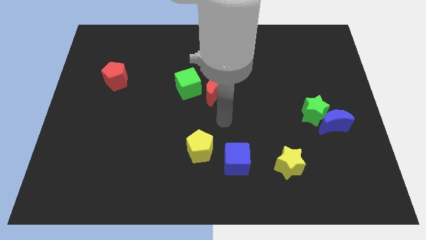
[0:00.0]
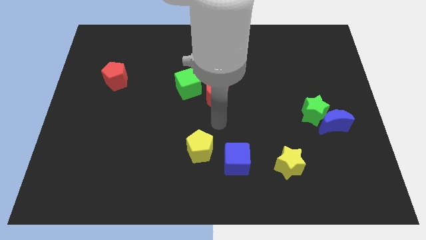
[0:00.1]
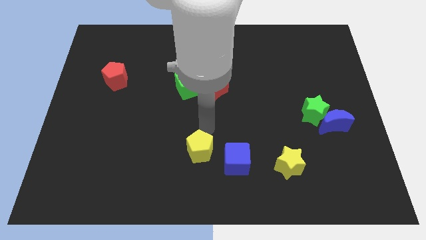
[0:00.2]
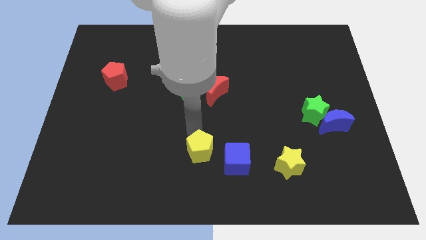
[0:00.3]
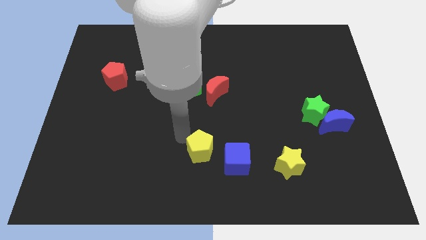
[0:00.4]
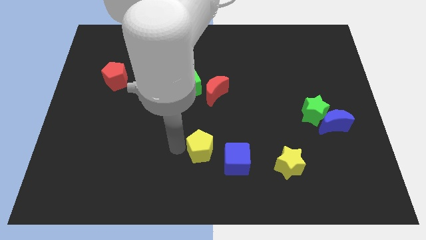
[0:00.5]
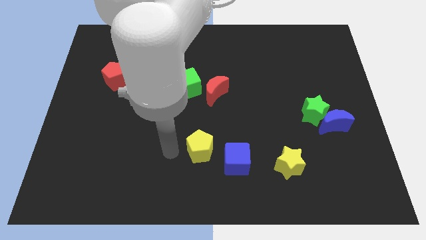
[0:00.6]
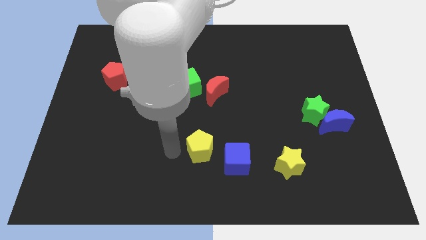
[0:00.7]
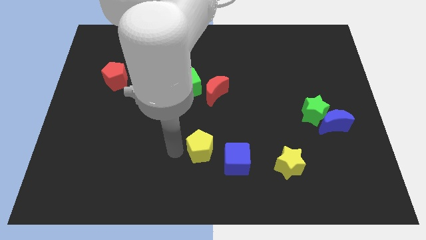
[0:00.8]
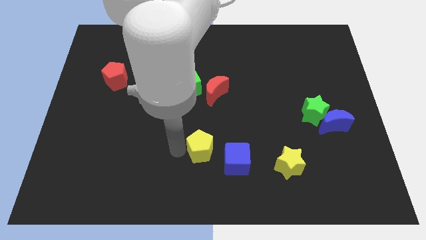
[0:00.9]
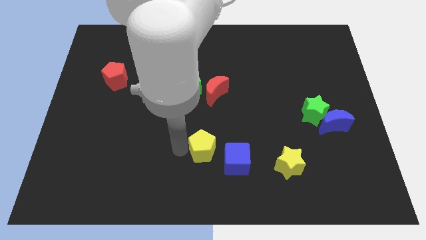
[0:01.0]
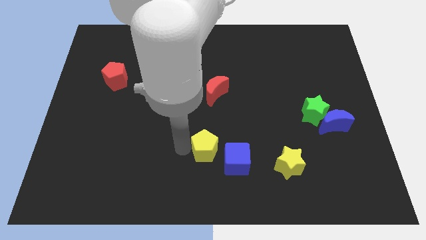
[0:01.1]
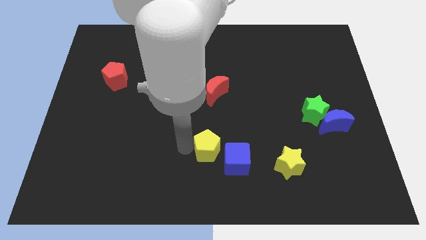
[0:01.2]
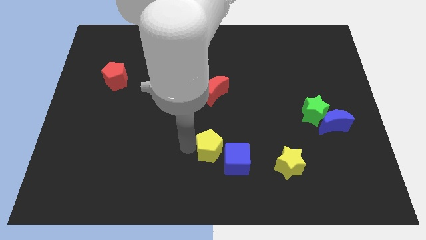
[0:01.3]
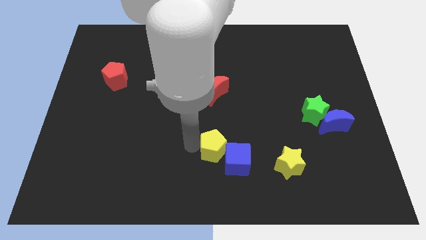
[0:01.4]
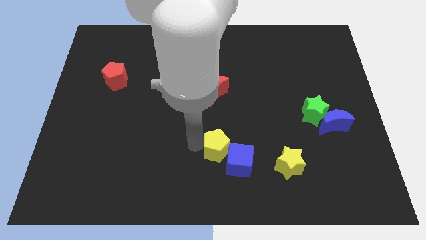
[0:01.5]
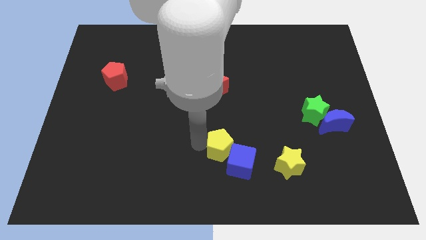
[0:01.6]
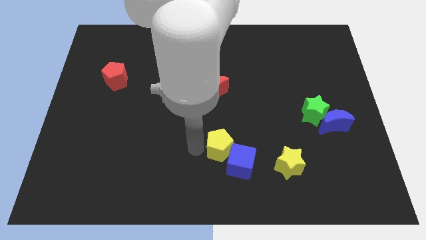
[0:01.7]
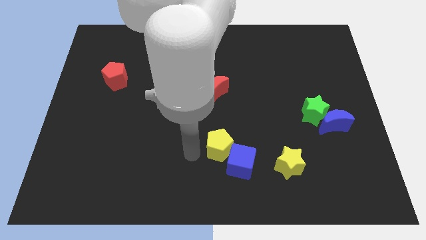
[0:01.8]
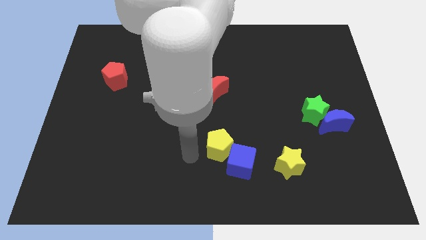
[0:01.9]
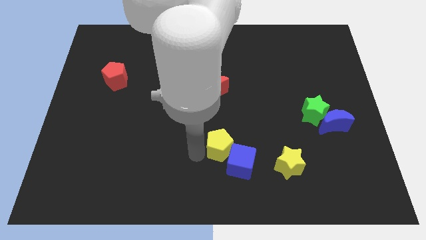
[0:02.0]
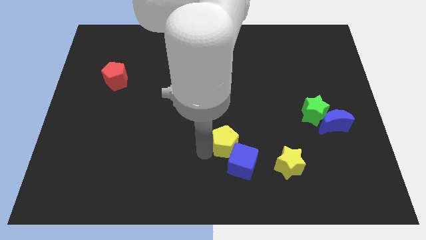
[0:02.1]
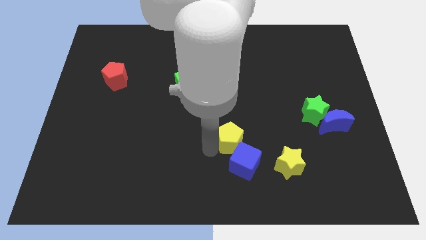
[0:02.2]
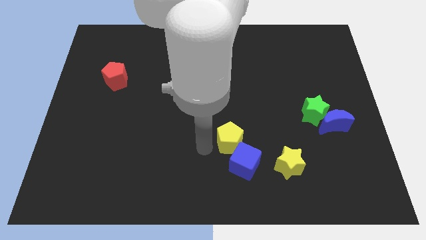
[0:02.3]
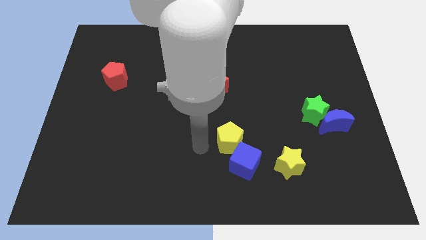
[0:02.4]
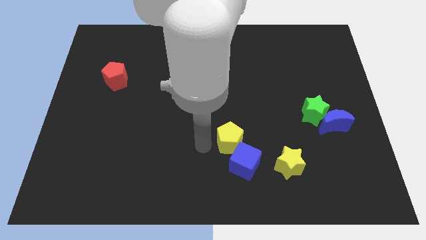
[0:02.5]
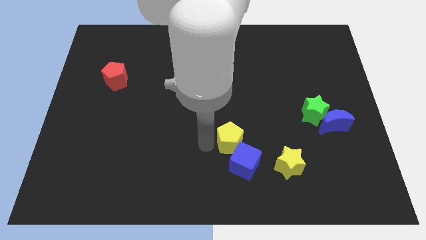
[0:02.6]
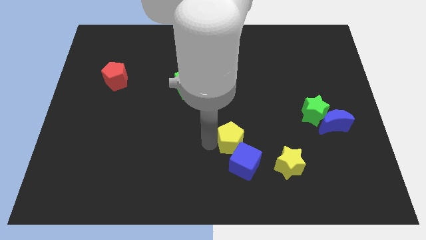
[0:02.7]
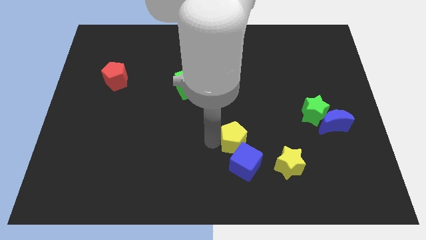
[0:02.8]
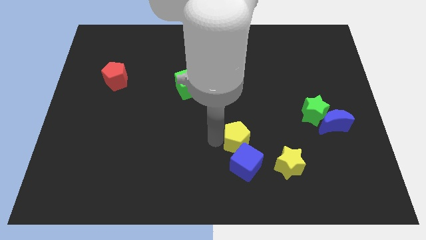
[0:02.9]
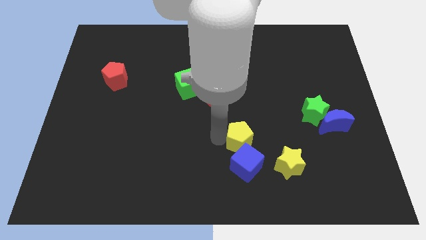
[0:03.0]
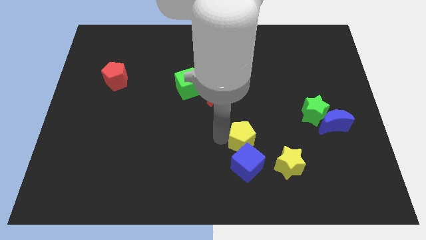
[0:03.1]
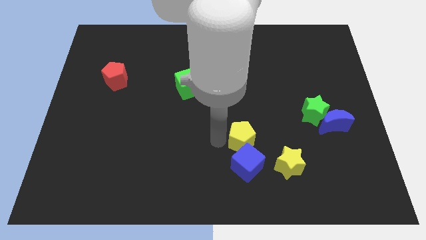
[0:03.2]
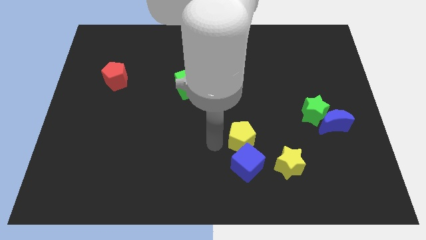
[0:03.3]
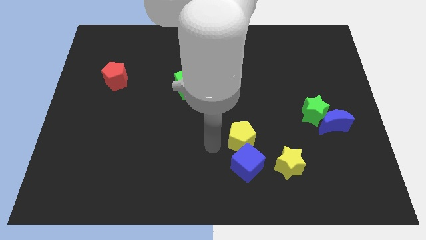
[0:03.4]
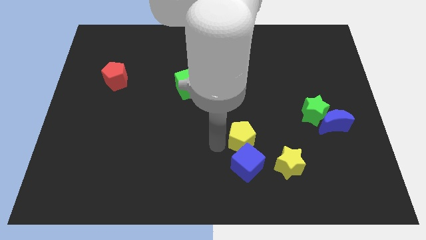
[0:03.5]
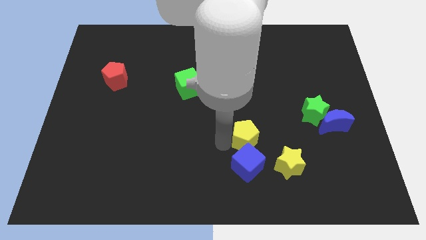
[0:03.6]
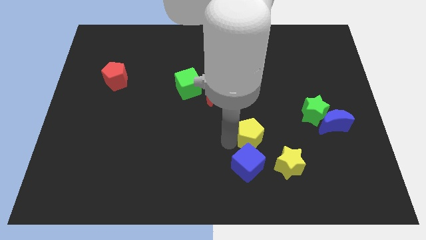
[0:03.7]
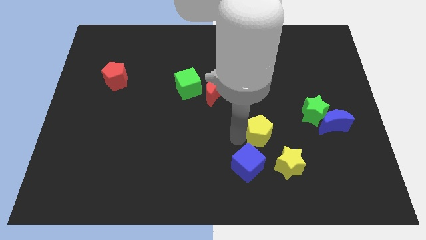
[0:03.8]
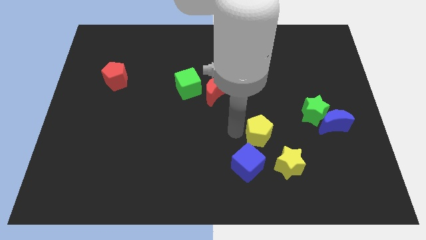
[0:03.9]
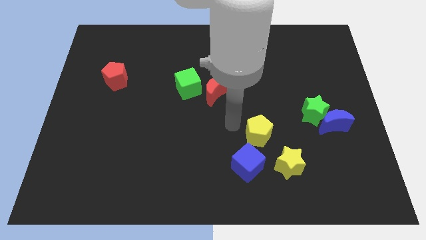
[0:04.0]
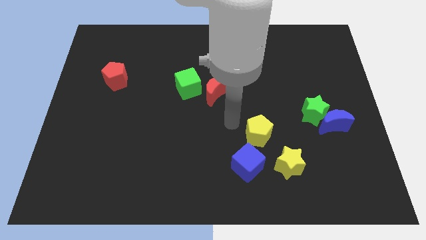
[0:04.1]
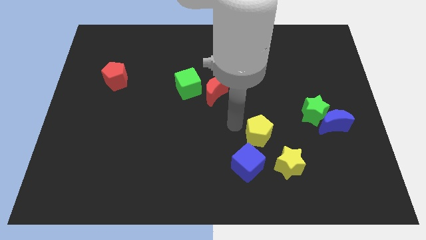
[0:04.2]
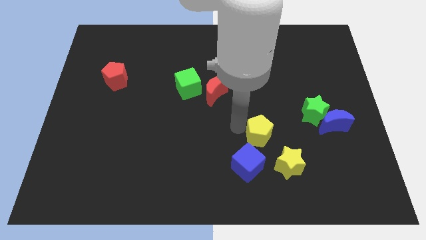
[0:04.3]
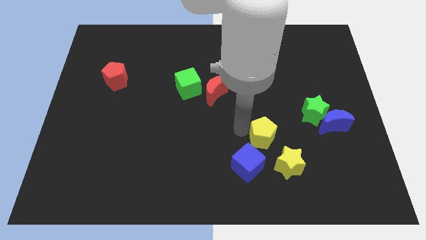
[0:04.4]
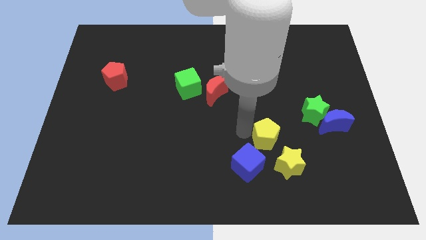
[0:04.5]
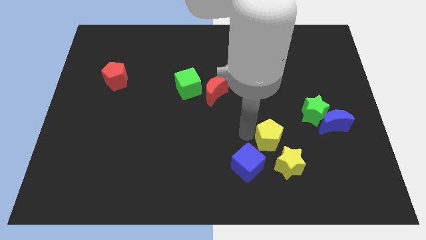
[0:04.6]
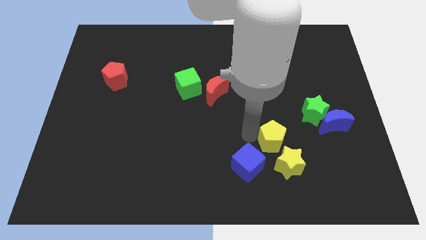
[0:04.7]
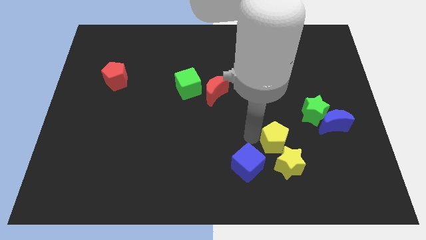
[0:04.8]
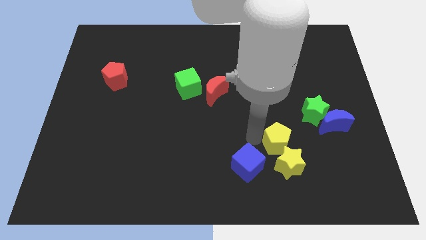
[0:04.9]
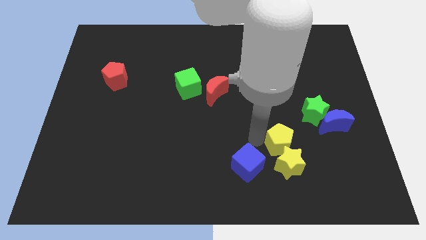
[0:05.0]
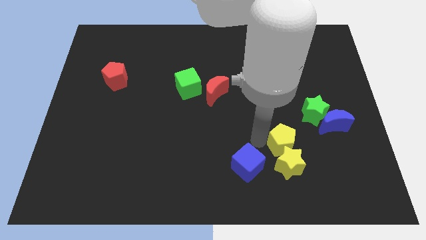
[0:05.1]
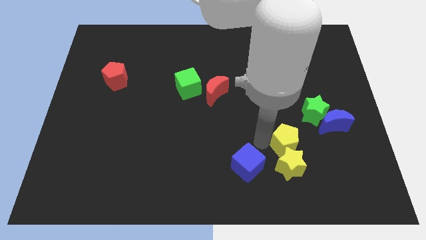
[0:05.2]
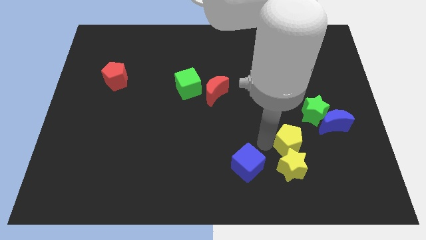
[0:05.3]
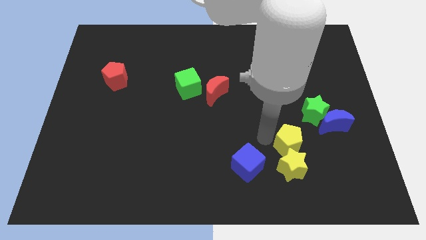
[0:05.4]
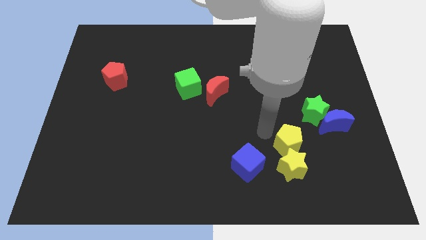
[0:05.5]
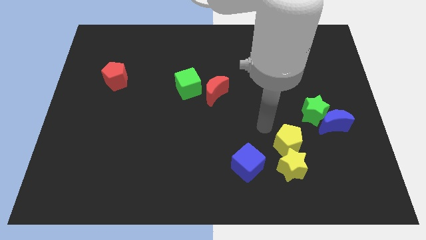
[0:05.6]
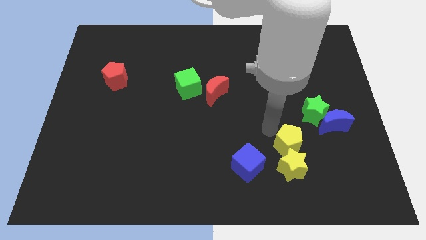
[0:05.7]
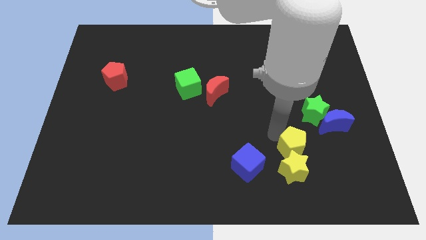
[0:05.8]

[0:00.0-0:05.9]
slide the yellow pentagon right of the blue cube

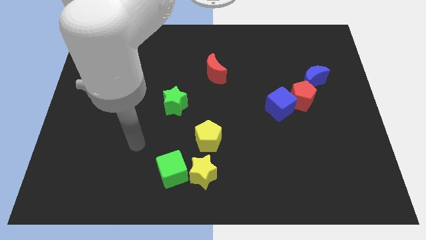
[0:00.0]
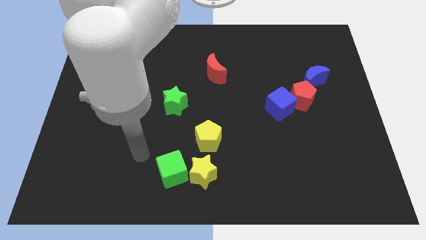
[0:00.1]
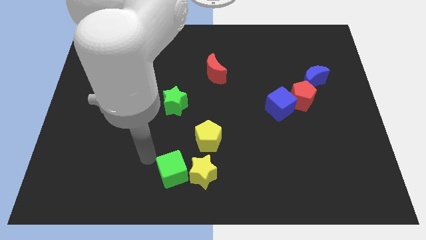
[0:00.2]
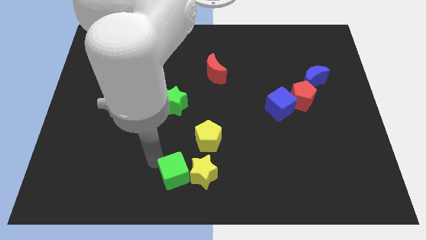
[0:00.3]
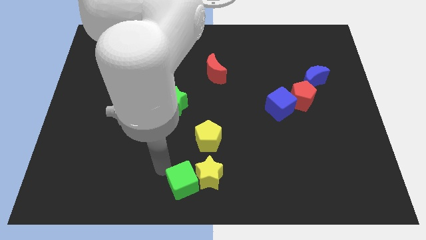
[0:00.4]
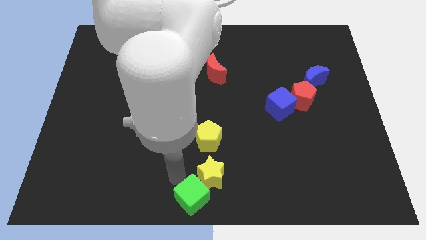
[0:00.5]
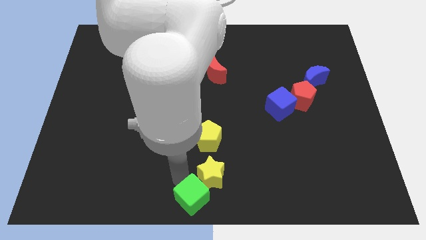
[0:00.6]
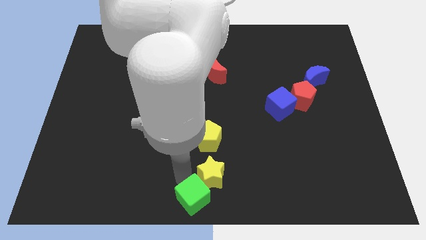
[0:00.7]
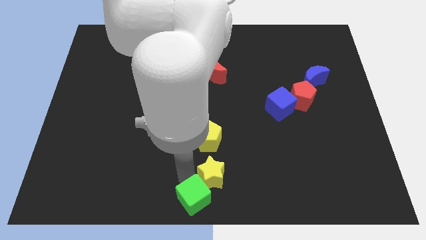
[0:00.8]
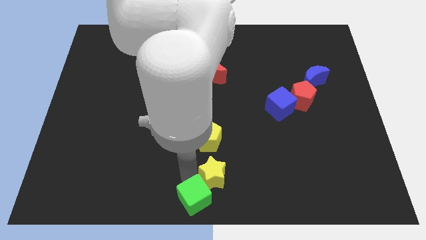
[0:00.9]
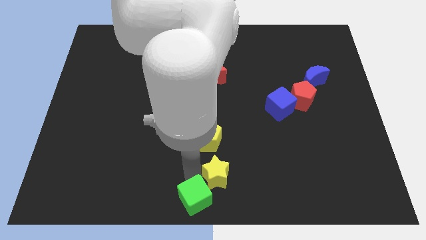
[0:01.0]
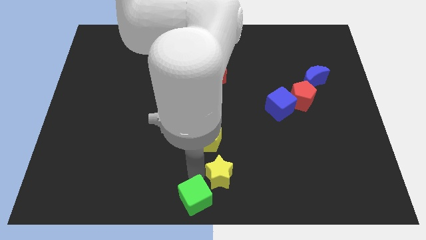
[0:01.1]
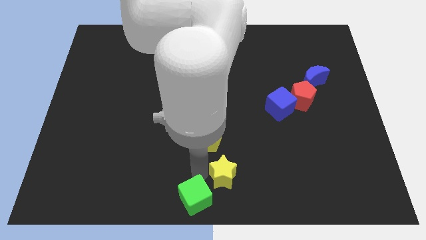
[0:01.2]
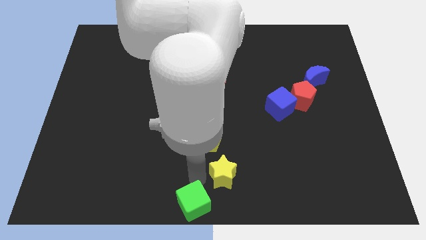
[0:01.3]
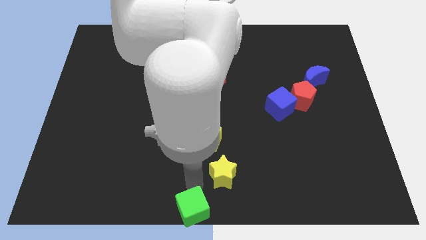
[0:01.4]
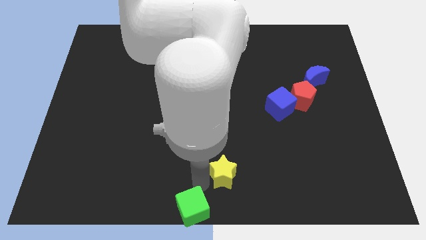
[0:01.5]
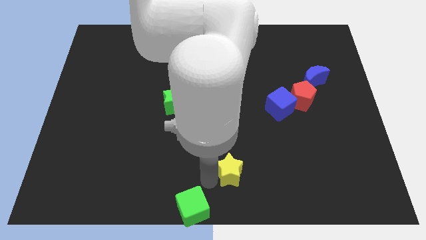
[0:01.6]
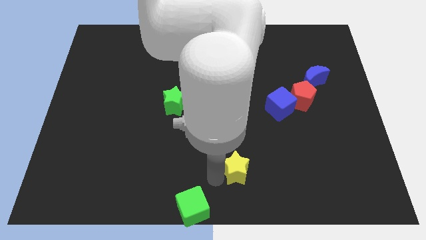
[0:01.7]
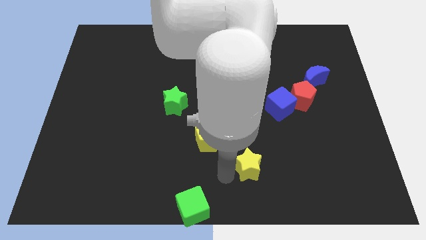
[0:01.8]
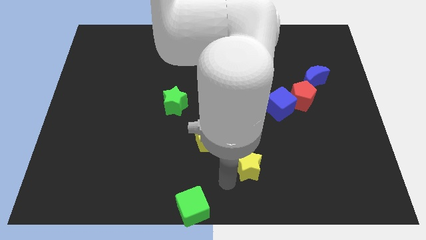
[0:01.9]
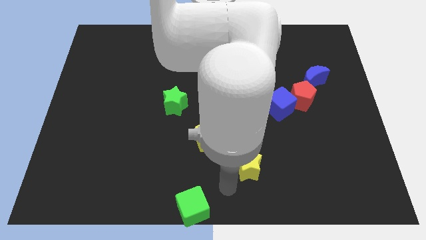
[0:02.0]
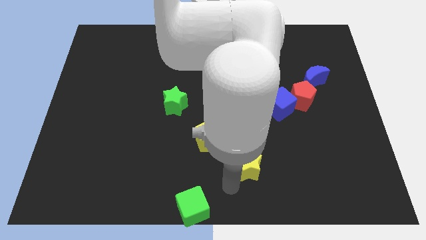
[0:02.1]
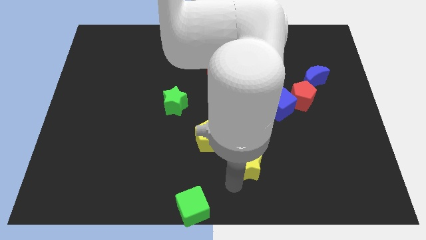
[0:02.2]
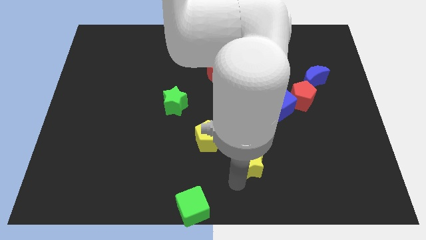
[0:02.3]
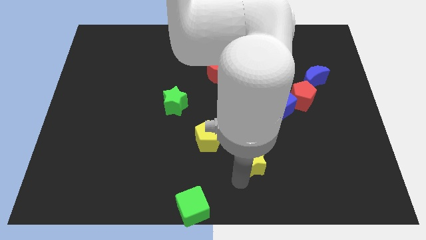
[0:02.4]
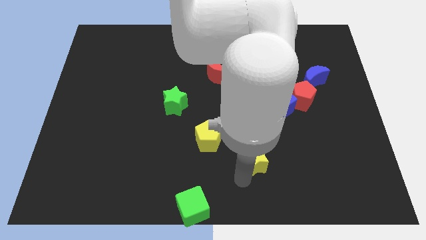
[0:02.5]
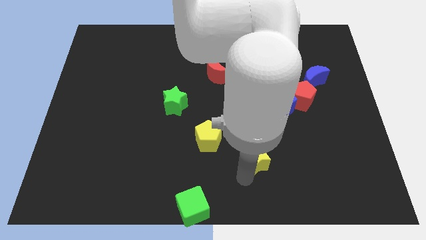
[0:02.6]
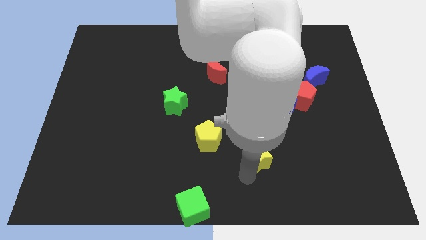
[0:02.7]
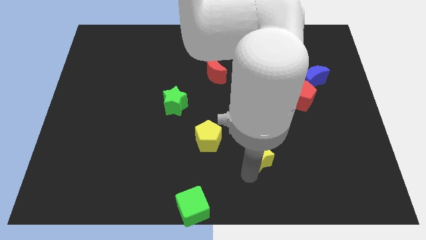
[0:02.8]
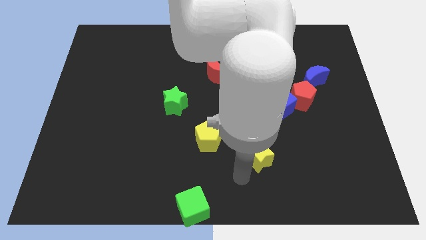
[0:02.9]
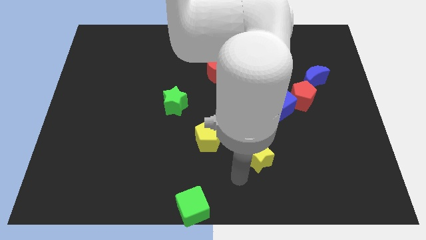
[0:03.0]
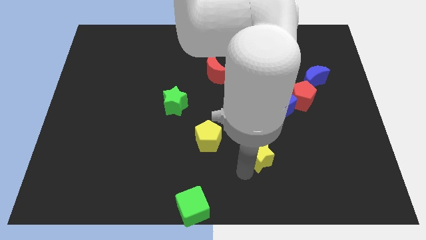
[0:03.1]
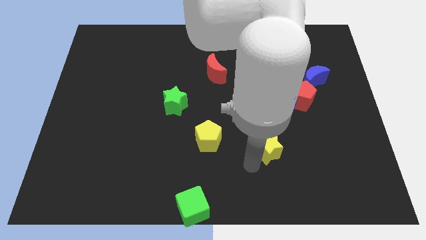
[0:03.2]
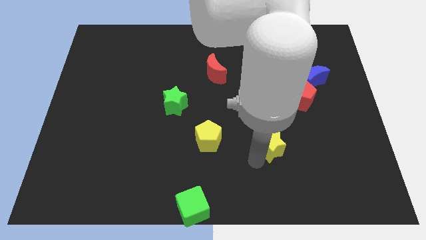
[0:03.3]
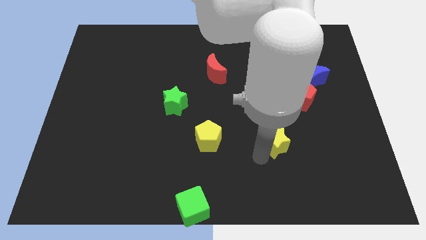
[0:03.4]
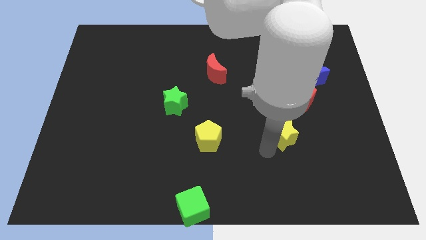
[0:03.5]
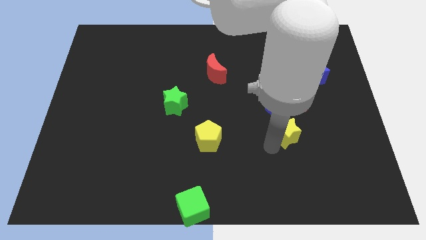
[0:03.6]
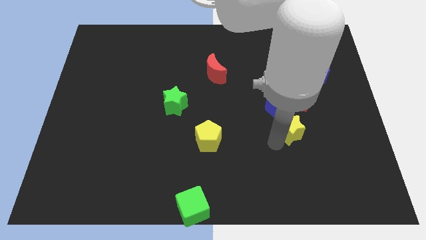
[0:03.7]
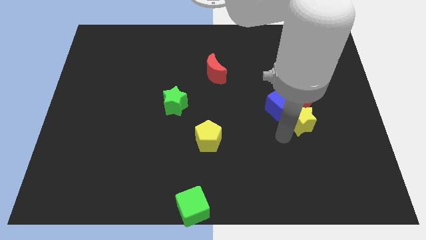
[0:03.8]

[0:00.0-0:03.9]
slide the yellow star to the right of the blue cube
